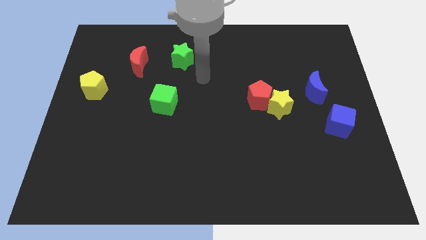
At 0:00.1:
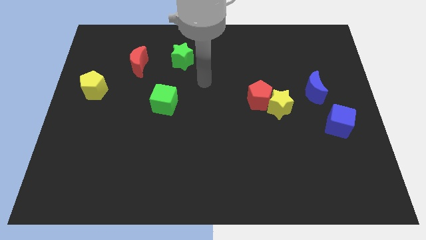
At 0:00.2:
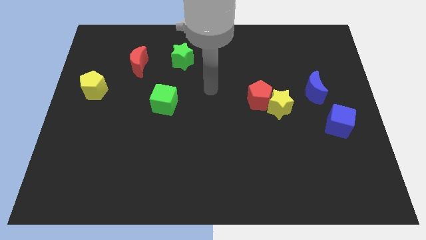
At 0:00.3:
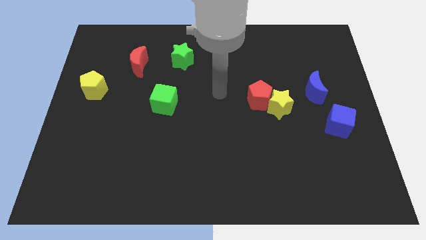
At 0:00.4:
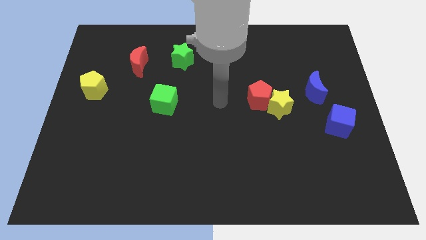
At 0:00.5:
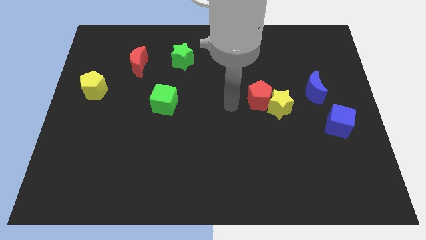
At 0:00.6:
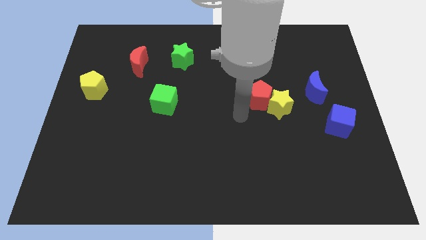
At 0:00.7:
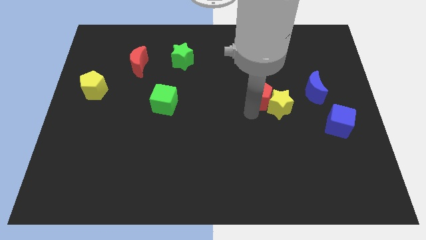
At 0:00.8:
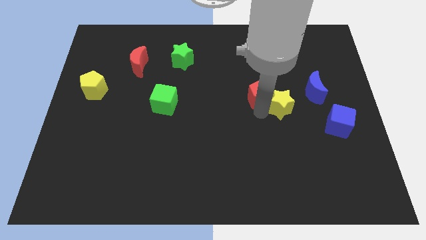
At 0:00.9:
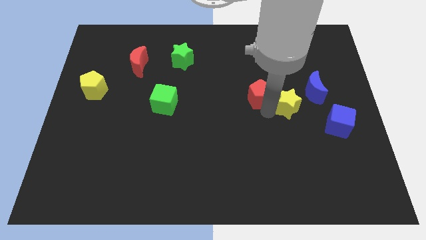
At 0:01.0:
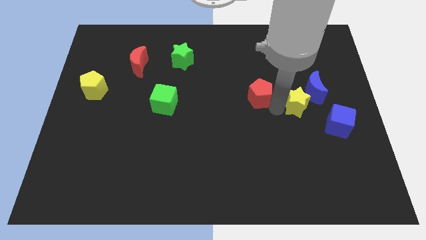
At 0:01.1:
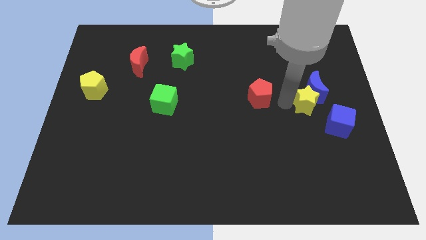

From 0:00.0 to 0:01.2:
separate the red pentagon from the yellow star

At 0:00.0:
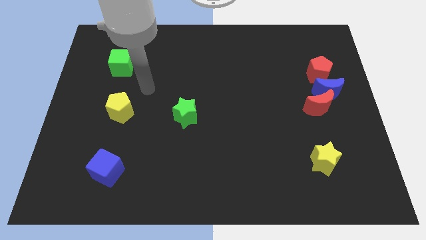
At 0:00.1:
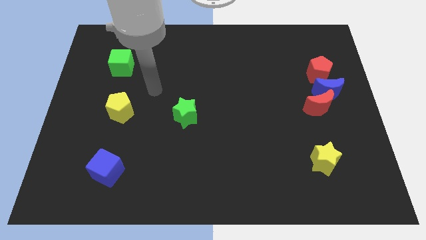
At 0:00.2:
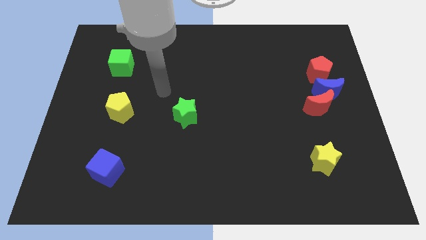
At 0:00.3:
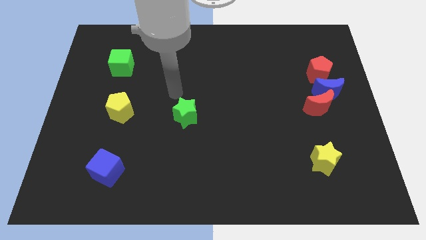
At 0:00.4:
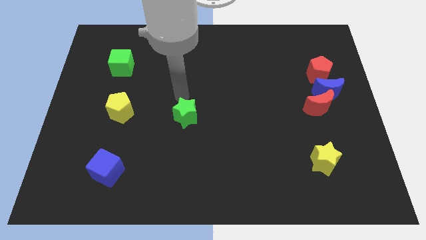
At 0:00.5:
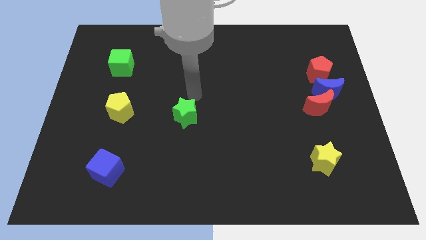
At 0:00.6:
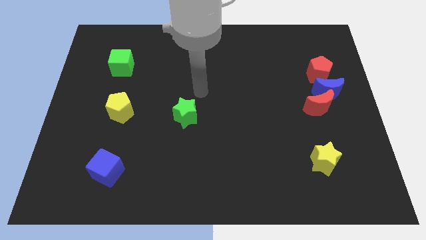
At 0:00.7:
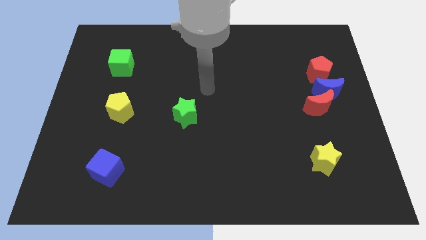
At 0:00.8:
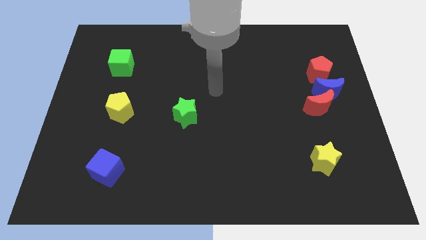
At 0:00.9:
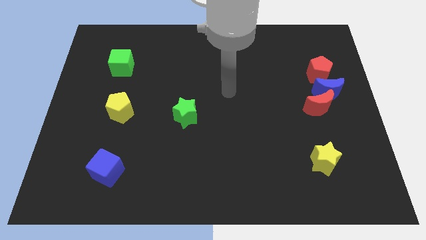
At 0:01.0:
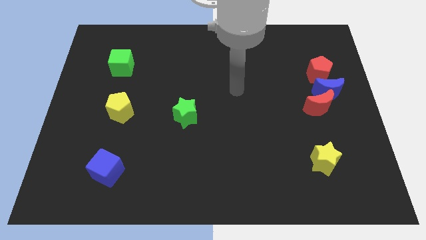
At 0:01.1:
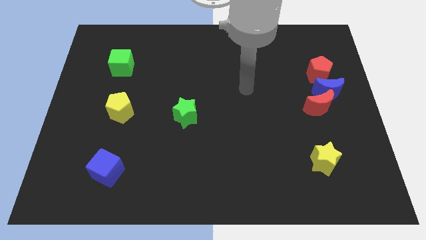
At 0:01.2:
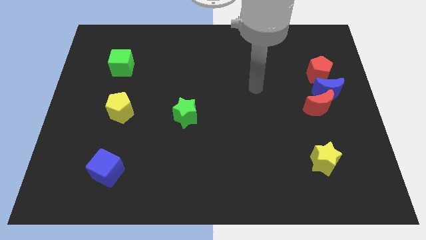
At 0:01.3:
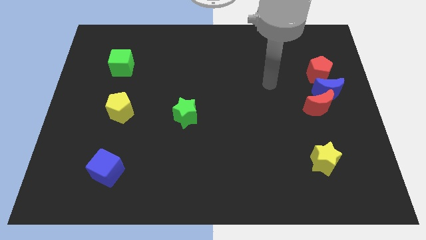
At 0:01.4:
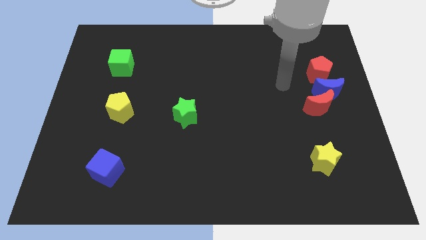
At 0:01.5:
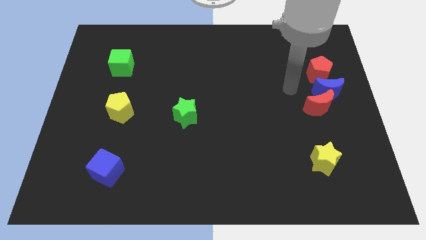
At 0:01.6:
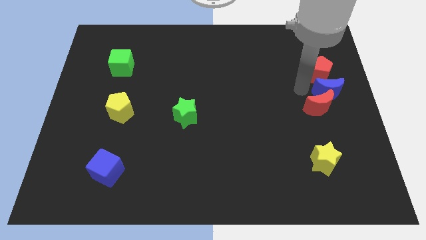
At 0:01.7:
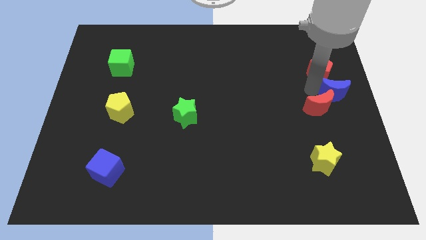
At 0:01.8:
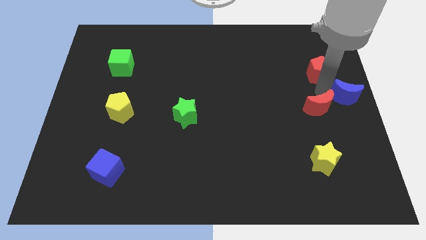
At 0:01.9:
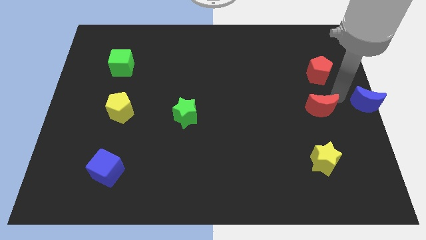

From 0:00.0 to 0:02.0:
separate the red moon from the blue moon

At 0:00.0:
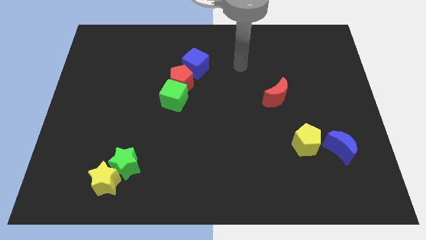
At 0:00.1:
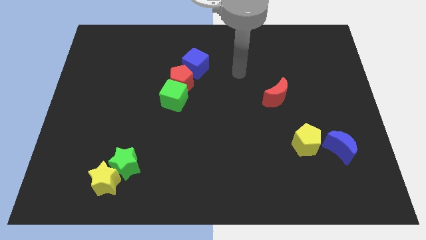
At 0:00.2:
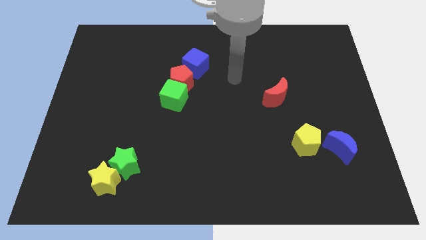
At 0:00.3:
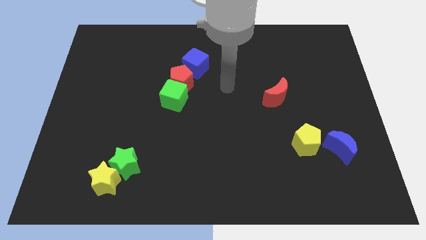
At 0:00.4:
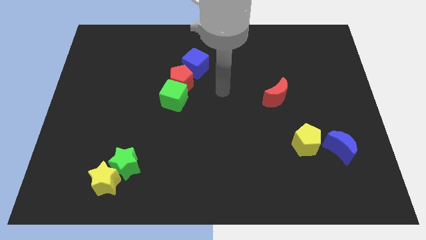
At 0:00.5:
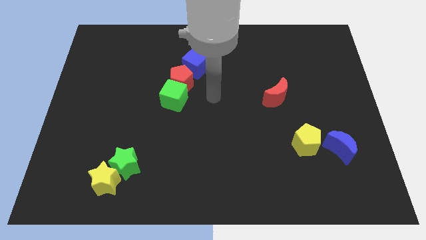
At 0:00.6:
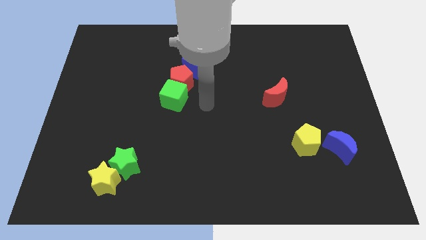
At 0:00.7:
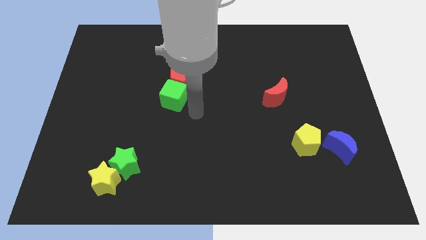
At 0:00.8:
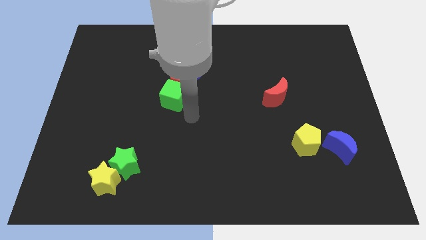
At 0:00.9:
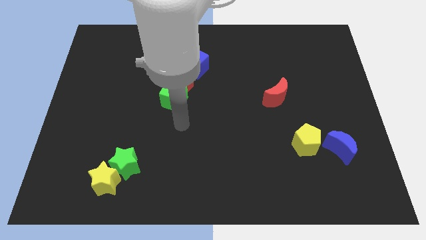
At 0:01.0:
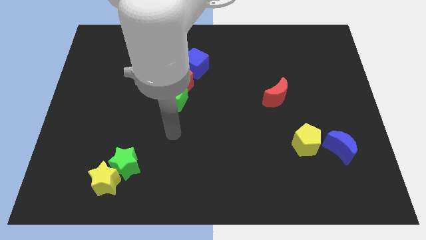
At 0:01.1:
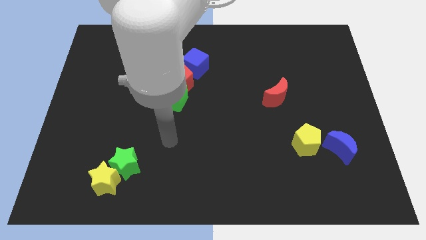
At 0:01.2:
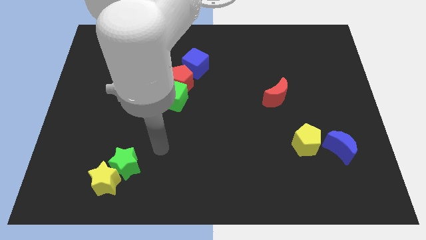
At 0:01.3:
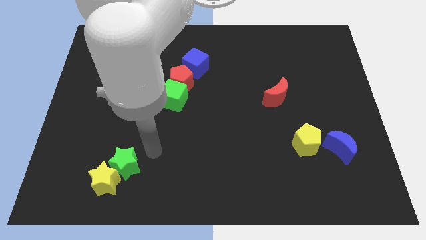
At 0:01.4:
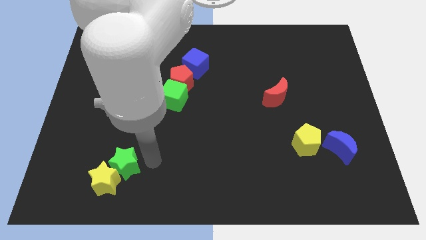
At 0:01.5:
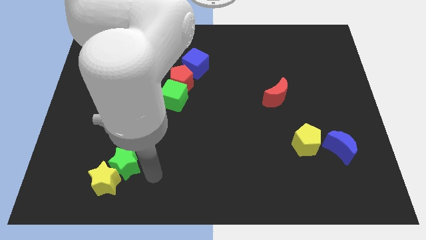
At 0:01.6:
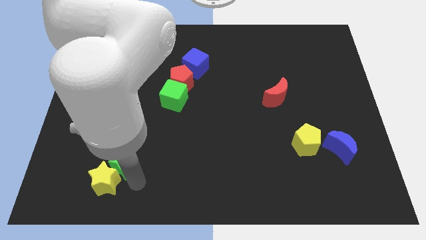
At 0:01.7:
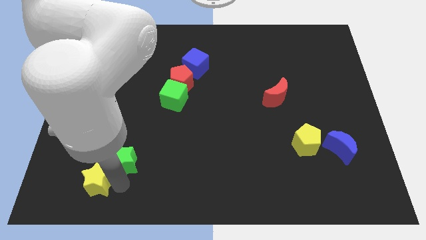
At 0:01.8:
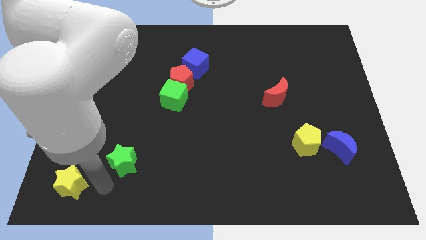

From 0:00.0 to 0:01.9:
move the green star away from the yellow star

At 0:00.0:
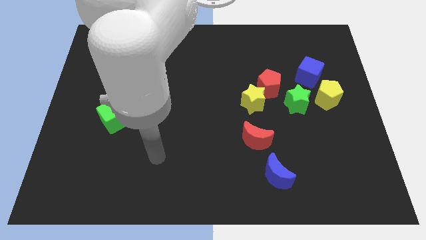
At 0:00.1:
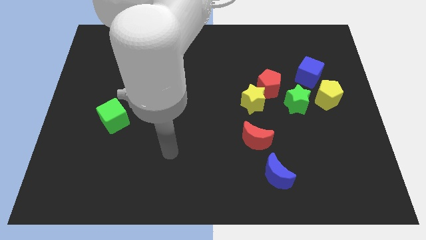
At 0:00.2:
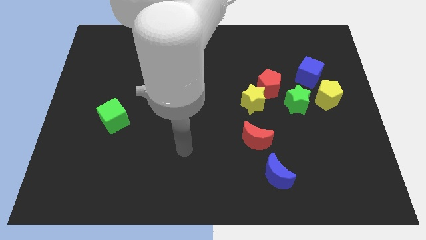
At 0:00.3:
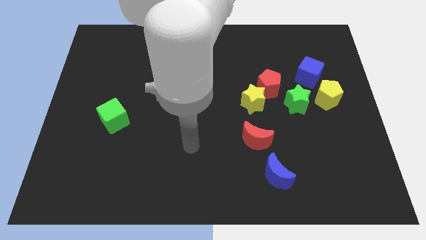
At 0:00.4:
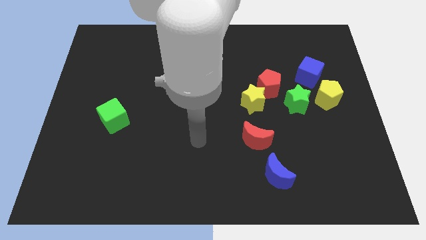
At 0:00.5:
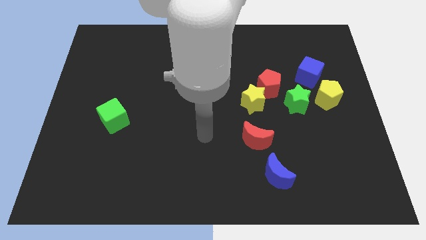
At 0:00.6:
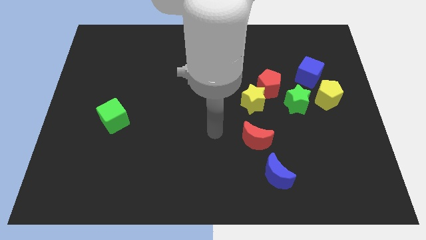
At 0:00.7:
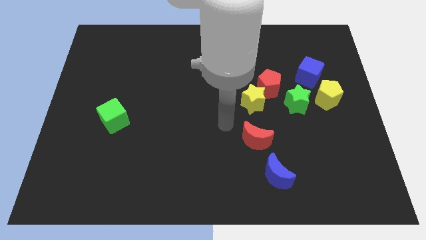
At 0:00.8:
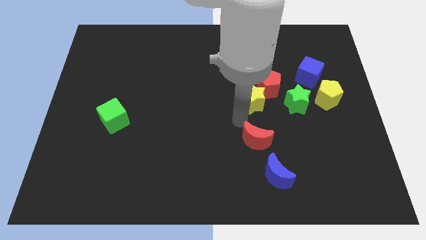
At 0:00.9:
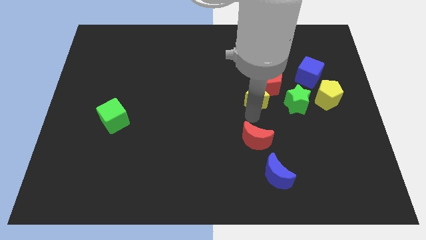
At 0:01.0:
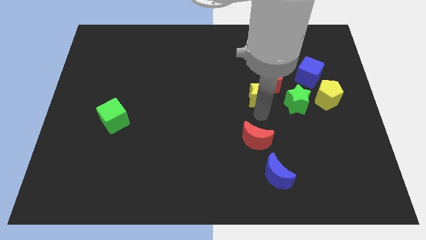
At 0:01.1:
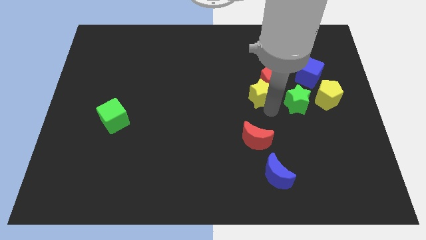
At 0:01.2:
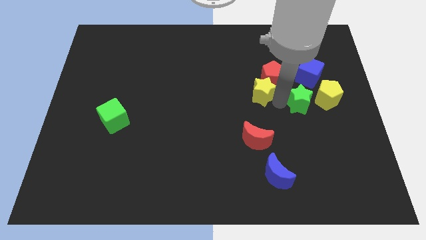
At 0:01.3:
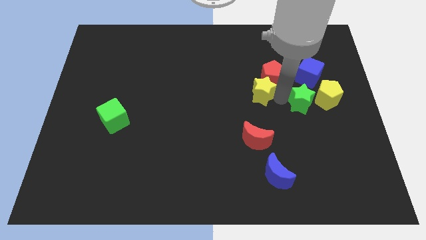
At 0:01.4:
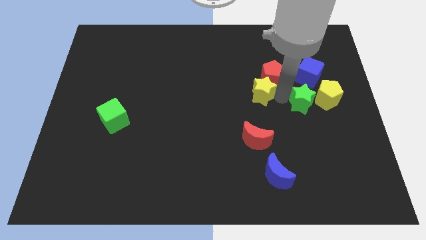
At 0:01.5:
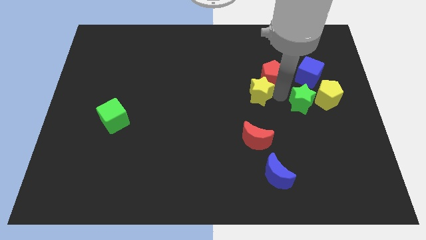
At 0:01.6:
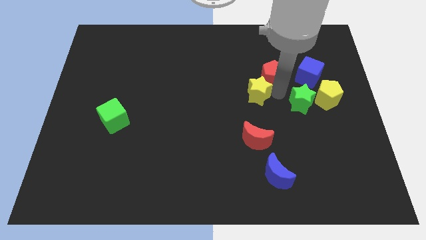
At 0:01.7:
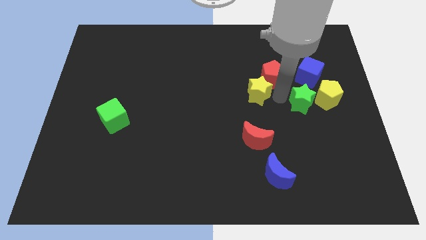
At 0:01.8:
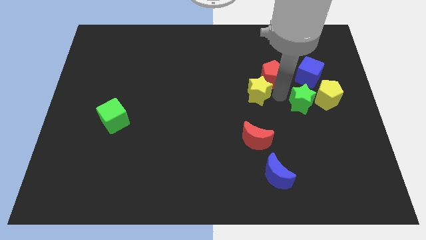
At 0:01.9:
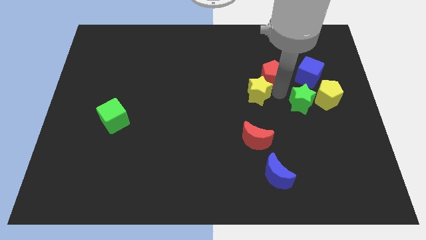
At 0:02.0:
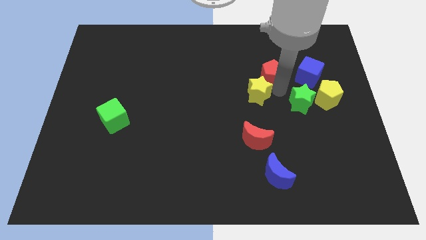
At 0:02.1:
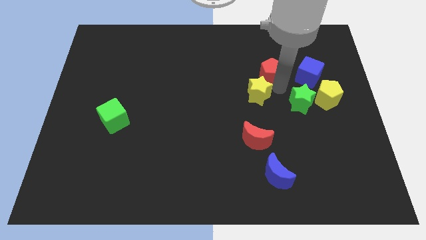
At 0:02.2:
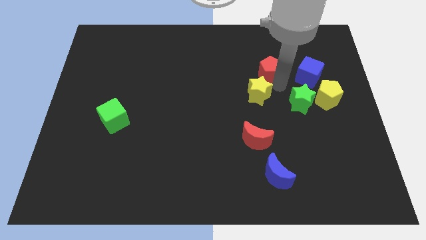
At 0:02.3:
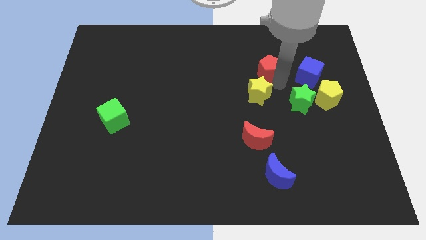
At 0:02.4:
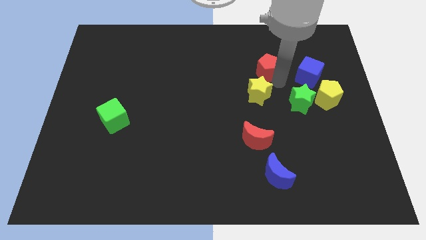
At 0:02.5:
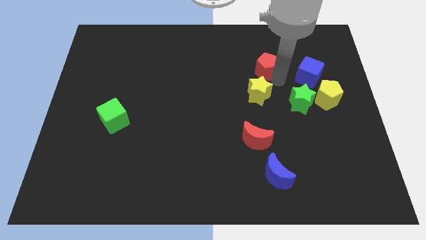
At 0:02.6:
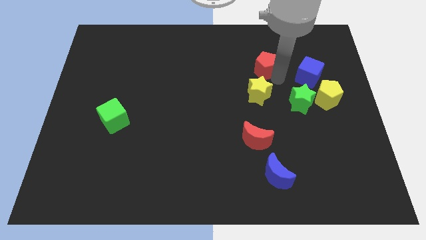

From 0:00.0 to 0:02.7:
move the red pentagon away from the yellow star and green star

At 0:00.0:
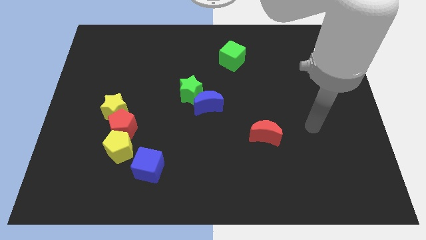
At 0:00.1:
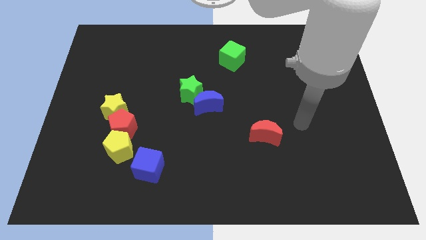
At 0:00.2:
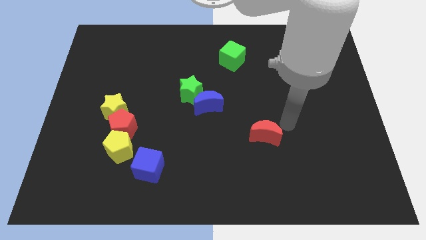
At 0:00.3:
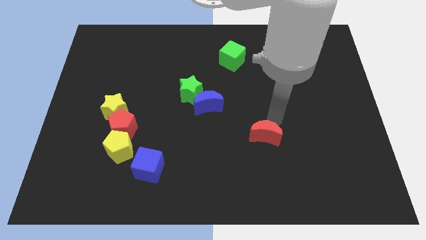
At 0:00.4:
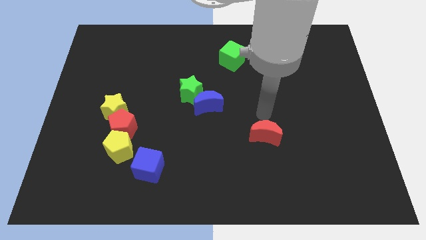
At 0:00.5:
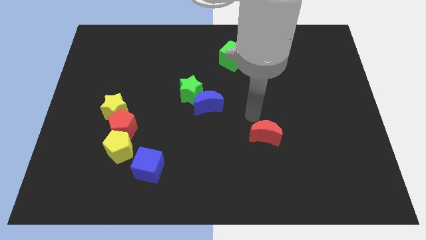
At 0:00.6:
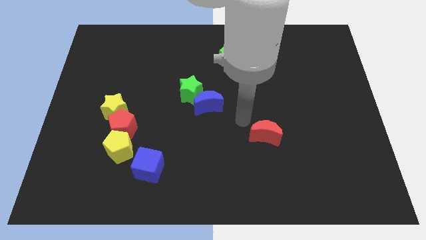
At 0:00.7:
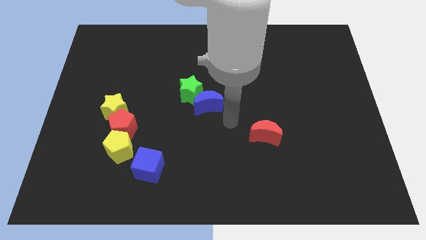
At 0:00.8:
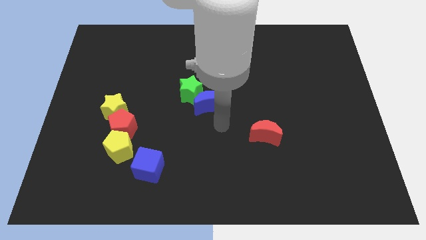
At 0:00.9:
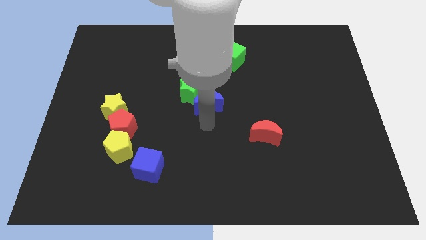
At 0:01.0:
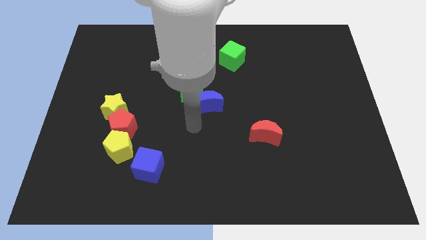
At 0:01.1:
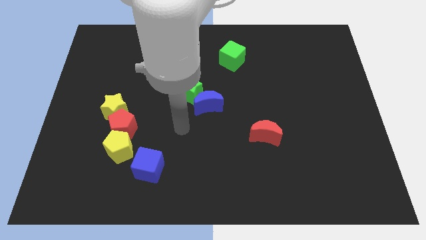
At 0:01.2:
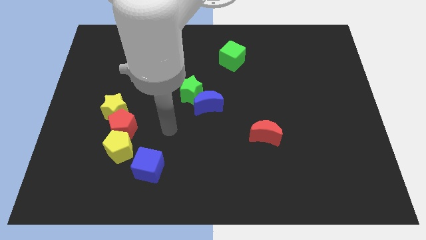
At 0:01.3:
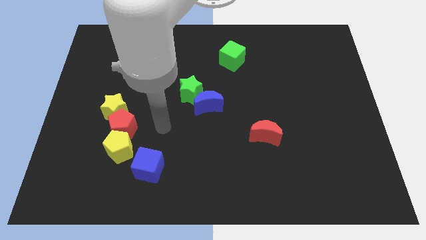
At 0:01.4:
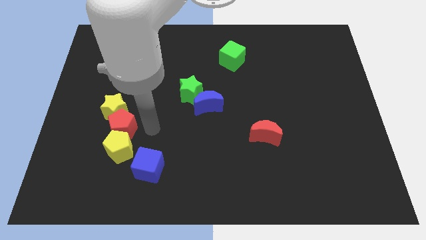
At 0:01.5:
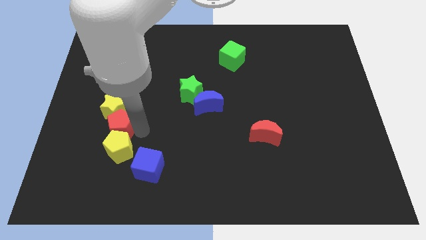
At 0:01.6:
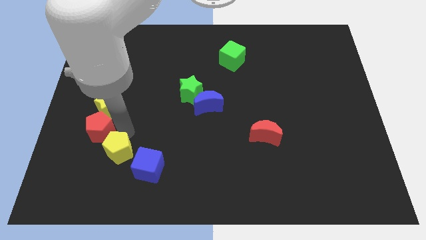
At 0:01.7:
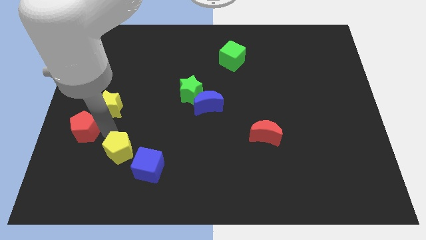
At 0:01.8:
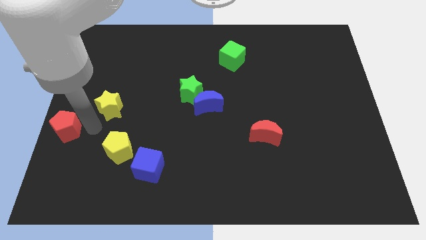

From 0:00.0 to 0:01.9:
pull the yellow star apart from the red pentagon
